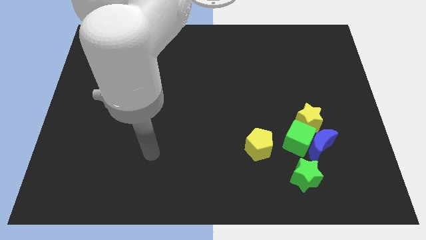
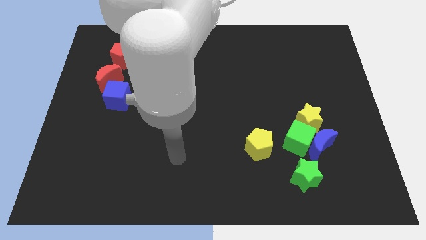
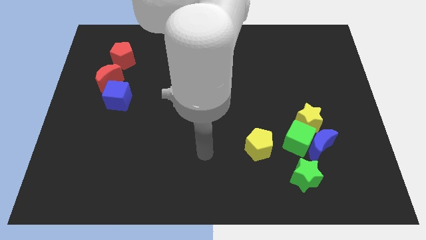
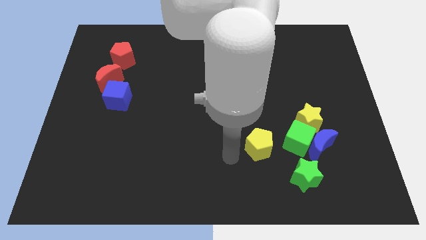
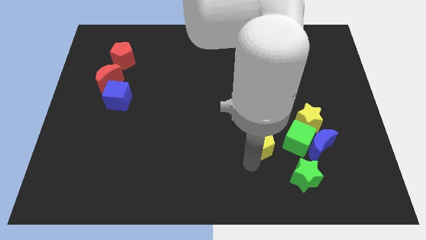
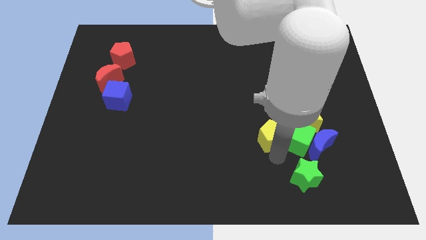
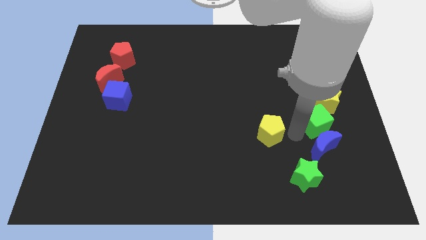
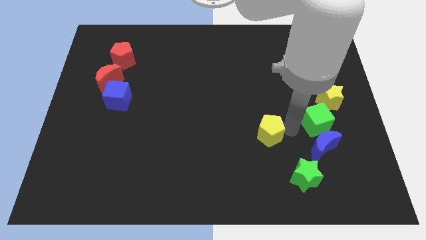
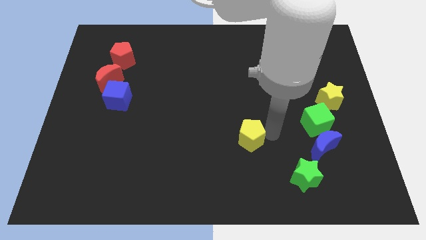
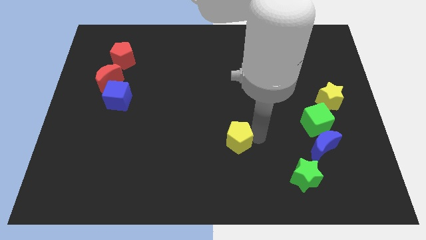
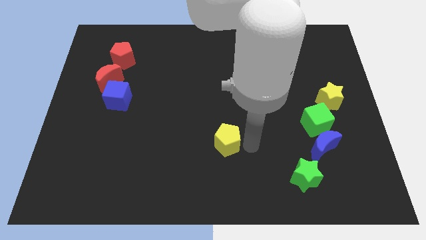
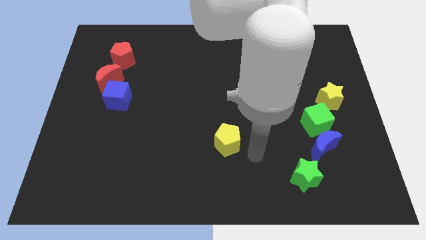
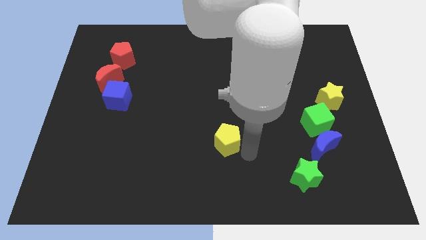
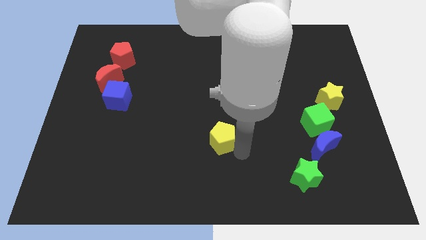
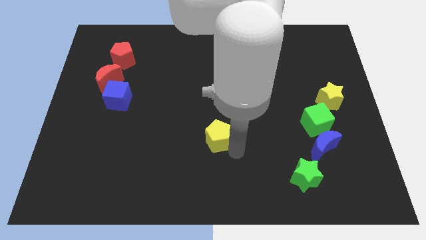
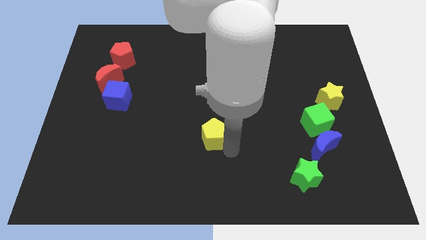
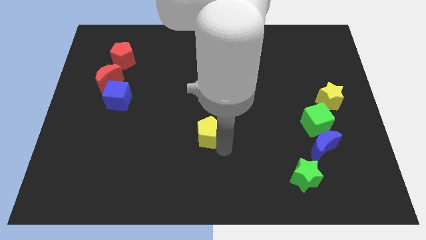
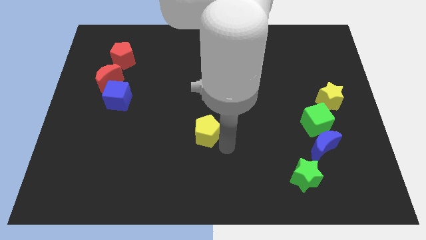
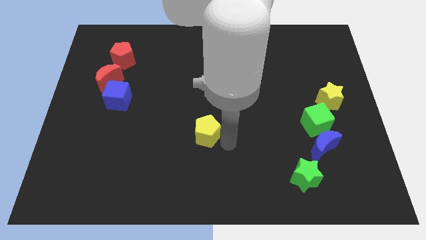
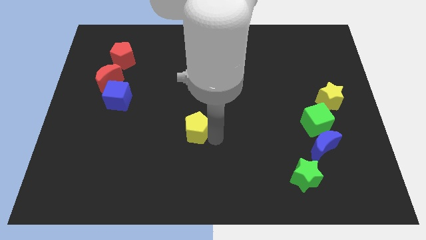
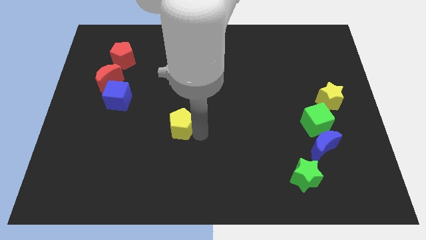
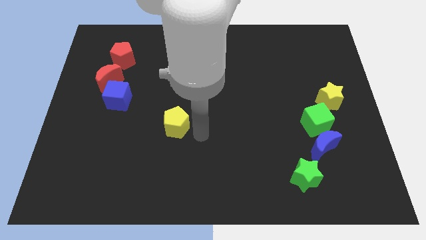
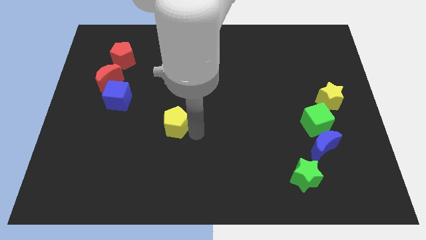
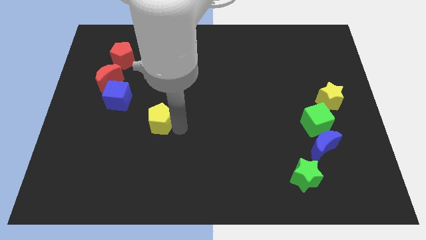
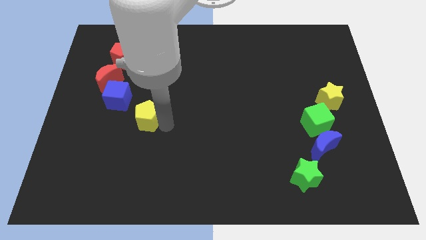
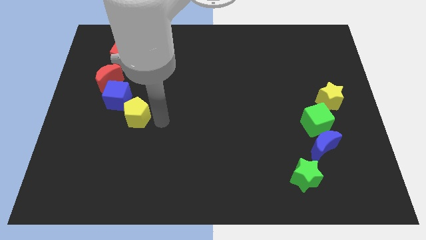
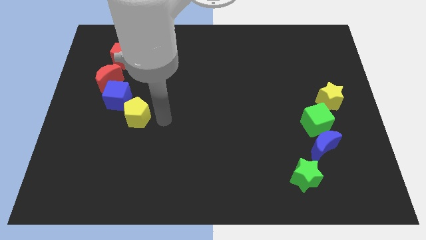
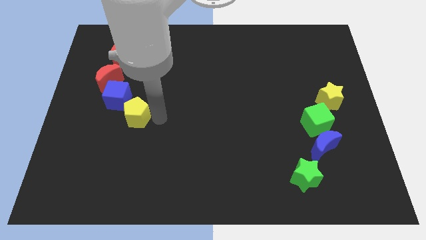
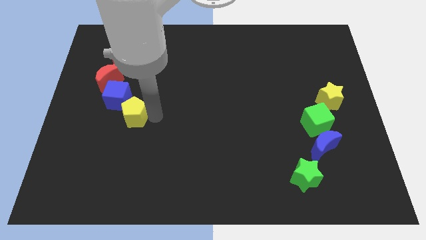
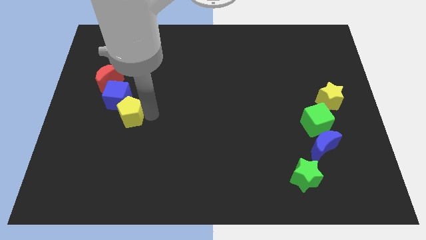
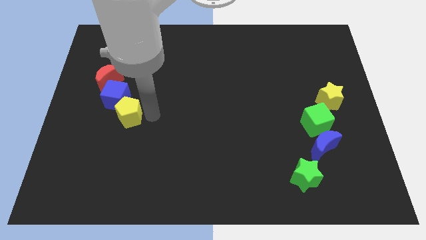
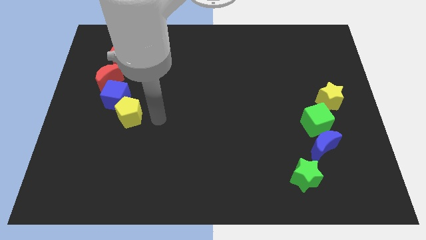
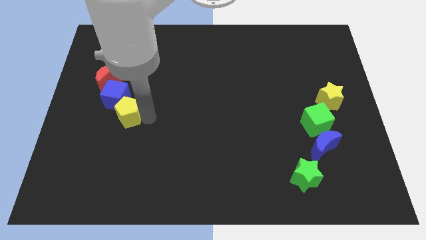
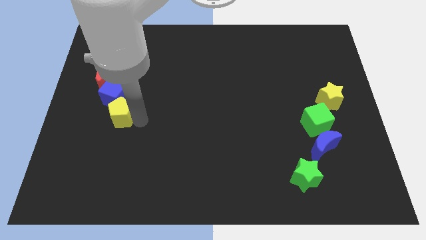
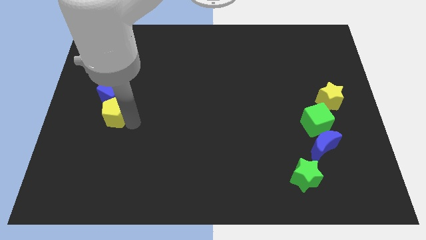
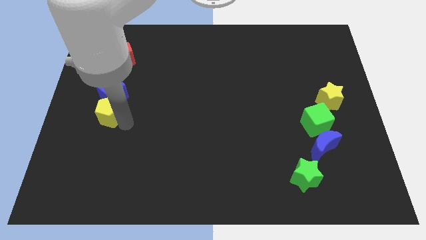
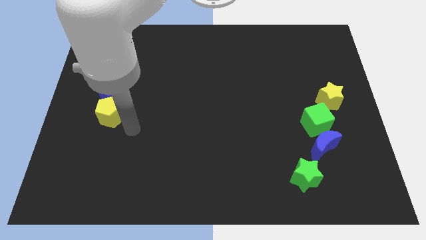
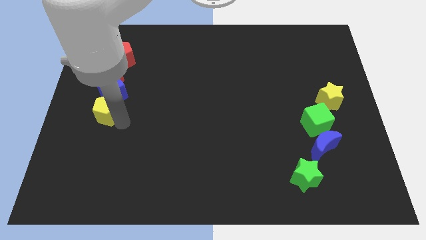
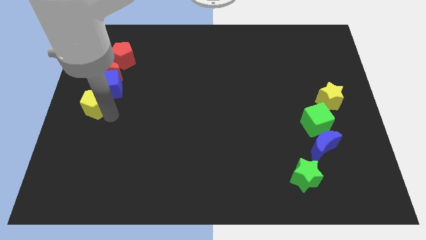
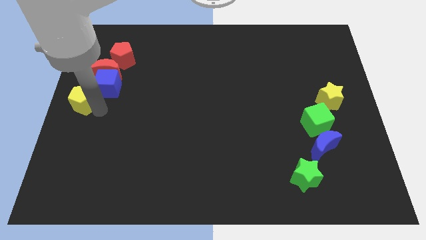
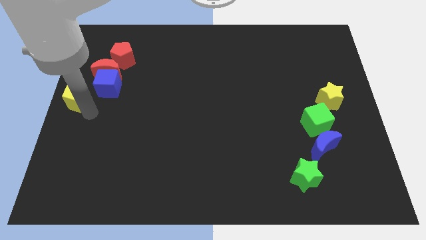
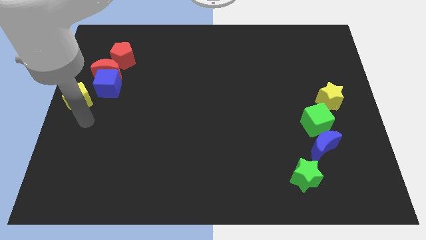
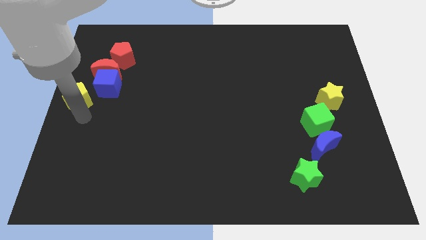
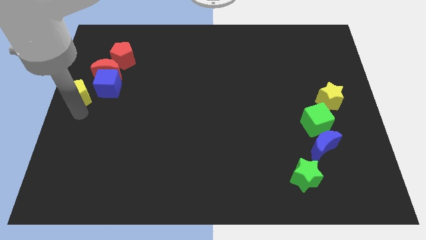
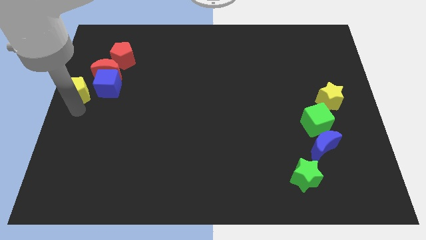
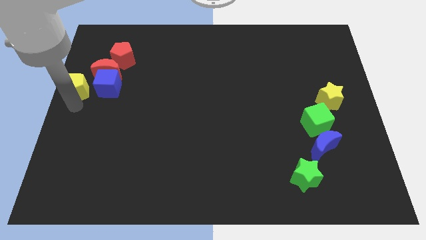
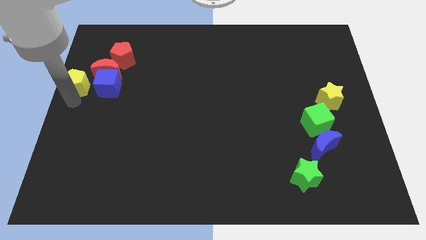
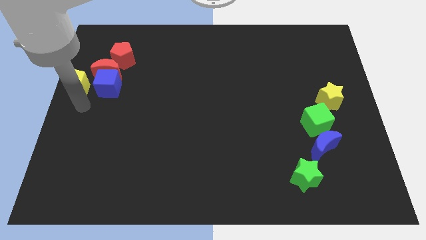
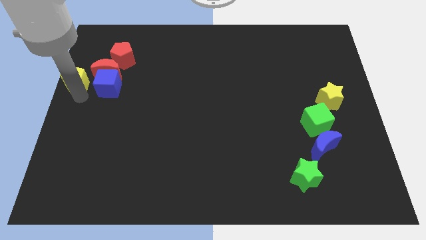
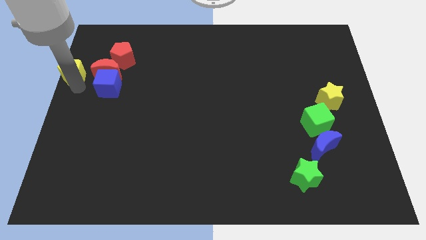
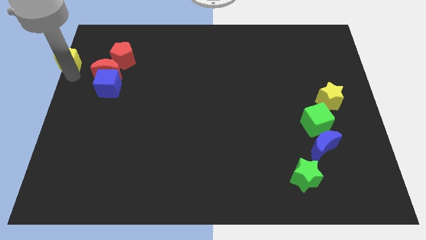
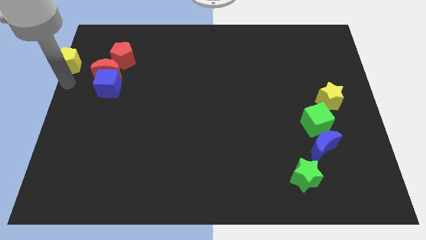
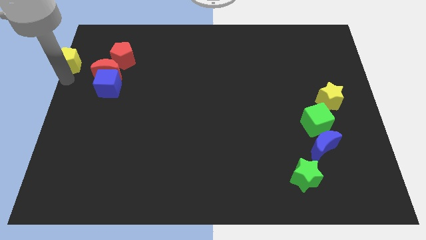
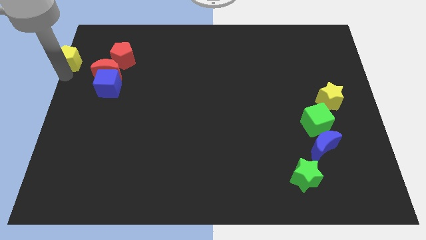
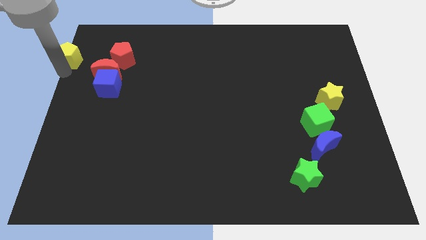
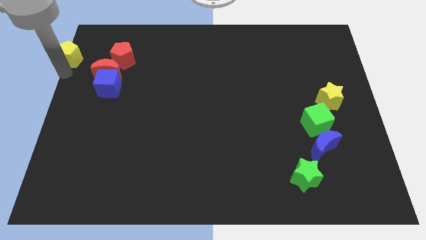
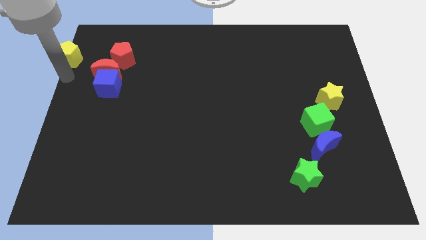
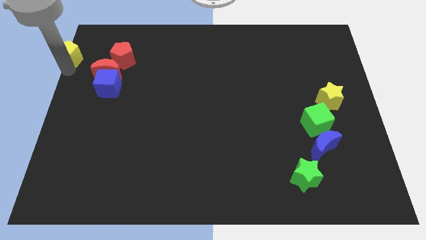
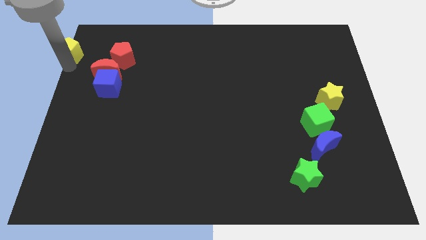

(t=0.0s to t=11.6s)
push the yellow pentagon to the top left

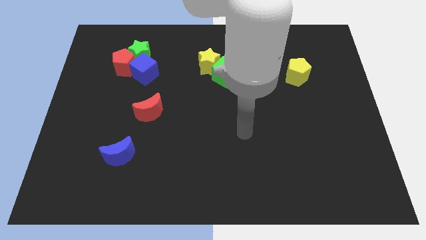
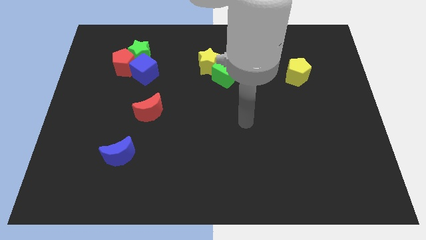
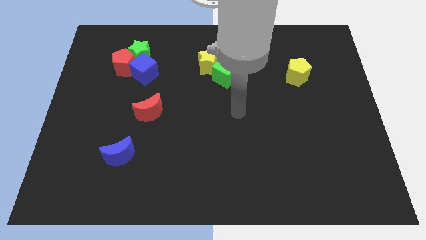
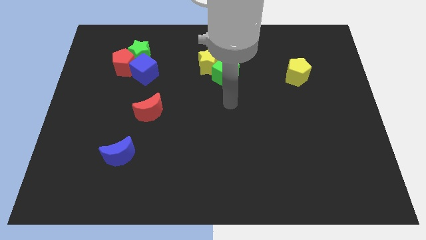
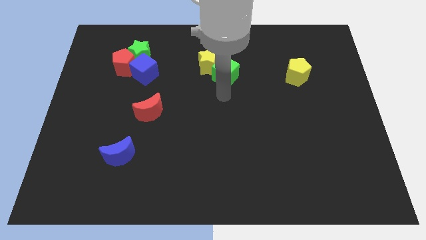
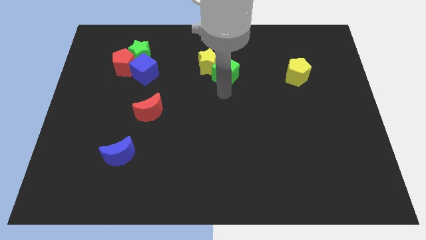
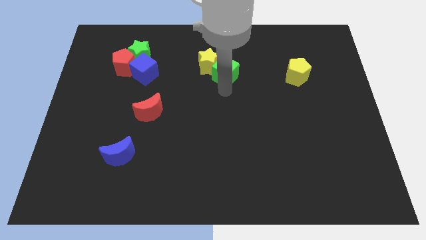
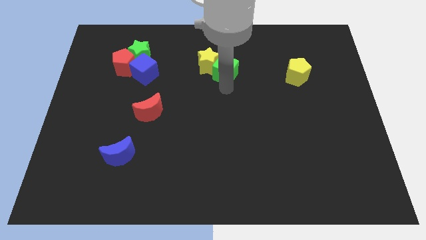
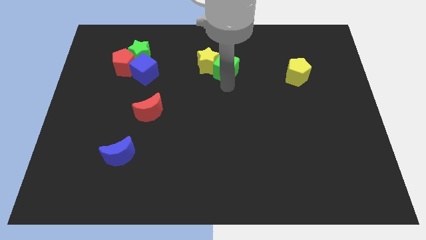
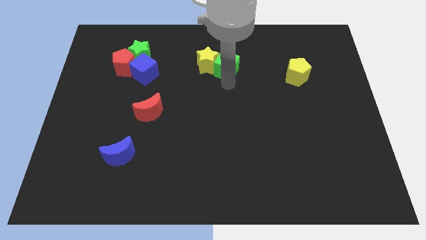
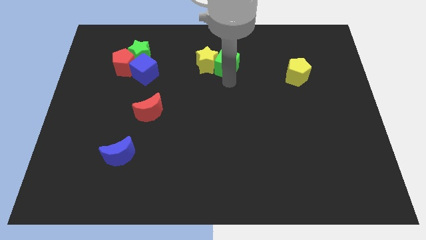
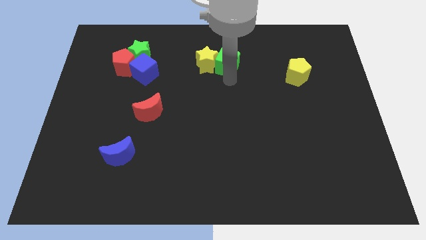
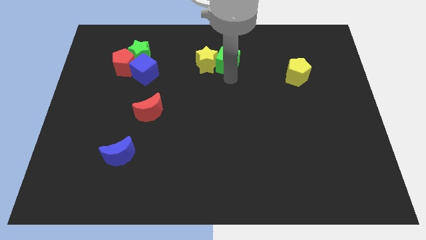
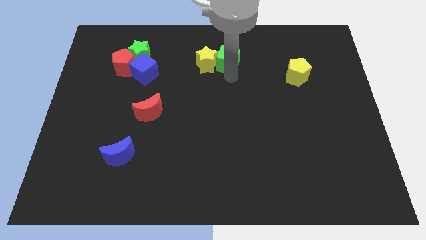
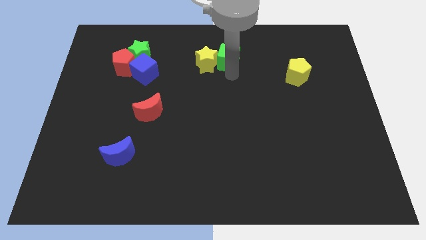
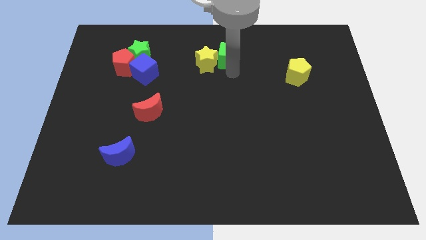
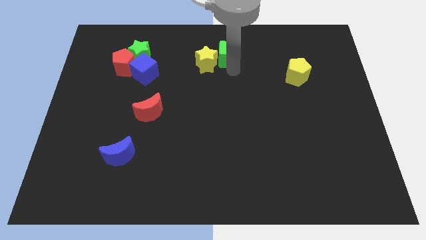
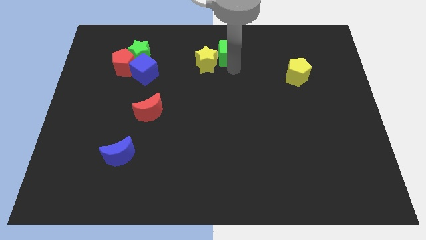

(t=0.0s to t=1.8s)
move the green cube to the top
